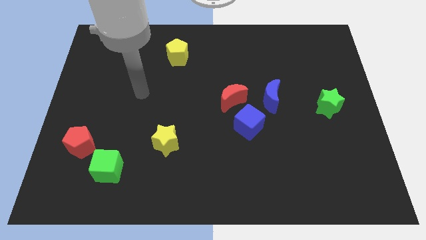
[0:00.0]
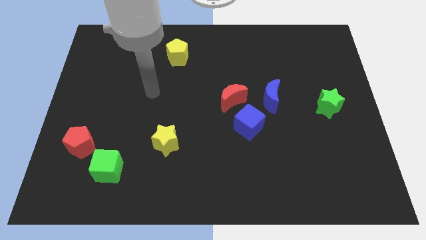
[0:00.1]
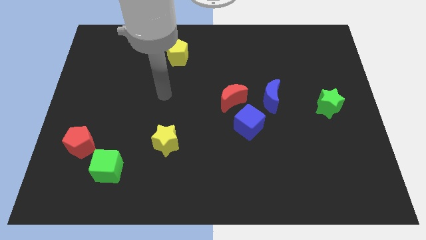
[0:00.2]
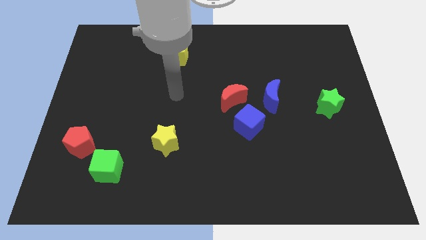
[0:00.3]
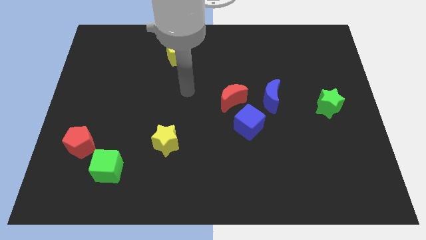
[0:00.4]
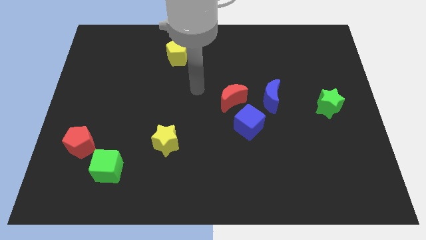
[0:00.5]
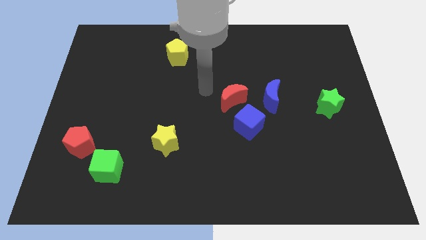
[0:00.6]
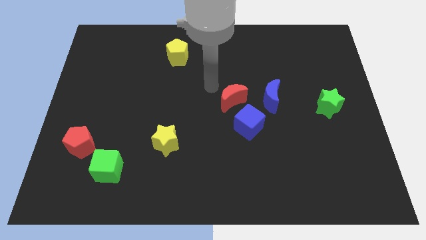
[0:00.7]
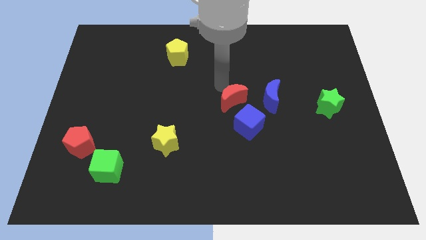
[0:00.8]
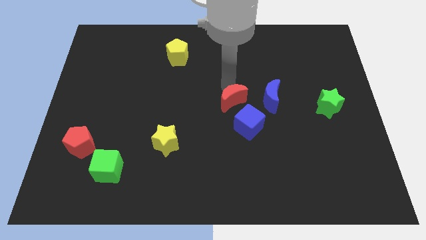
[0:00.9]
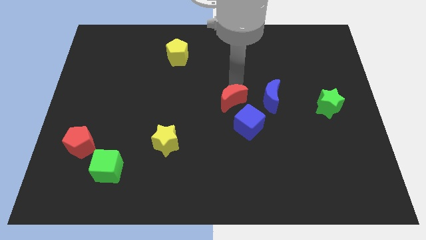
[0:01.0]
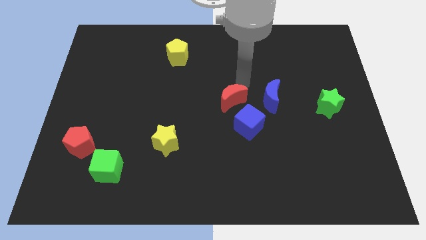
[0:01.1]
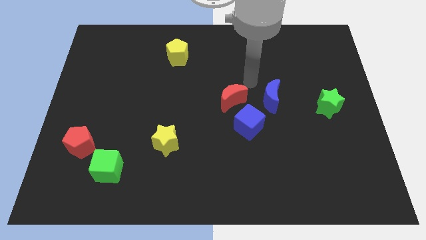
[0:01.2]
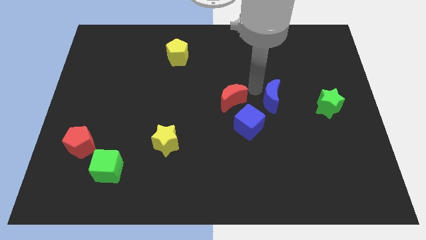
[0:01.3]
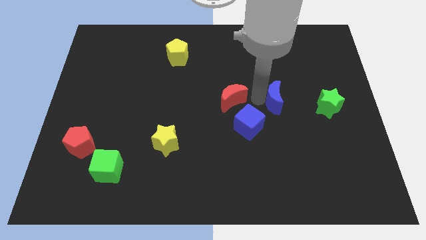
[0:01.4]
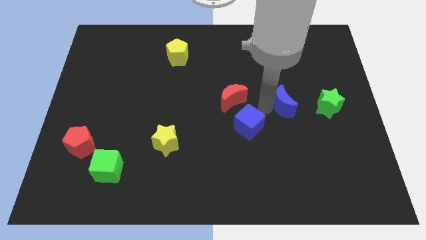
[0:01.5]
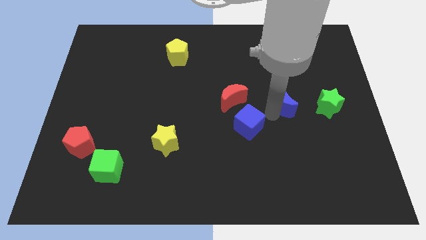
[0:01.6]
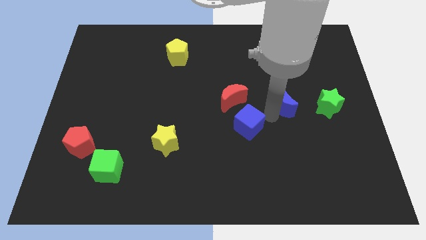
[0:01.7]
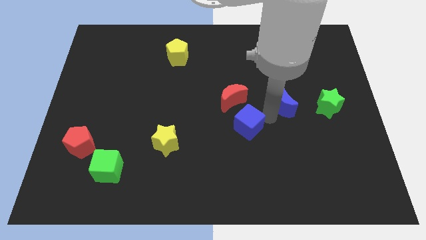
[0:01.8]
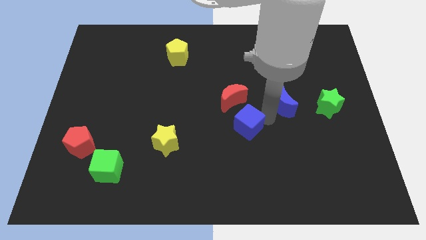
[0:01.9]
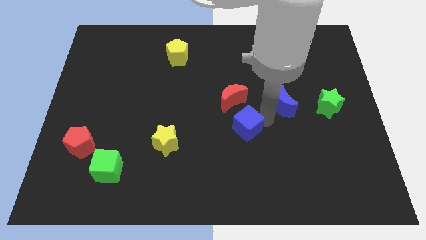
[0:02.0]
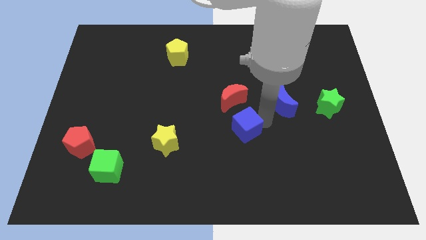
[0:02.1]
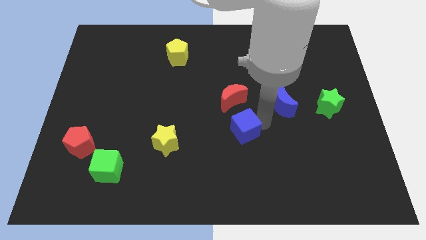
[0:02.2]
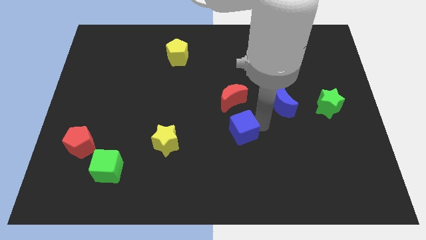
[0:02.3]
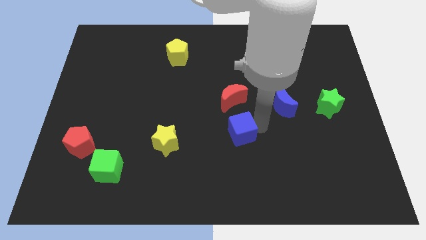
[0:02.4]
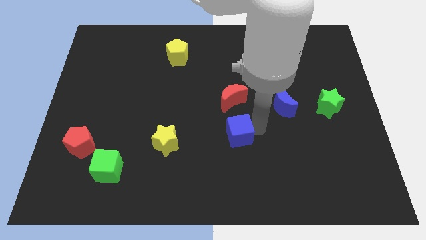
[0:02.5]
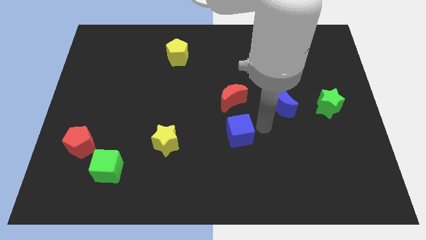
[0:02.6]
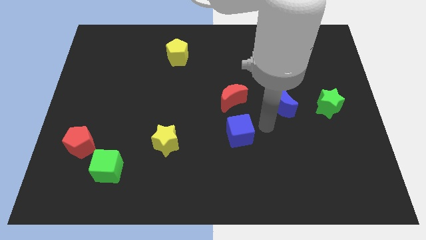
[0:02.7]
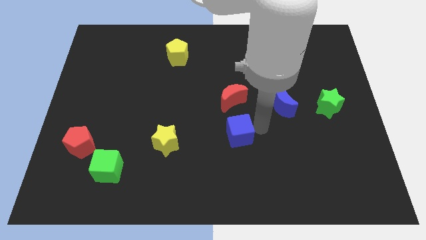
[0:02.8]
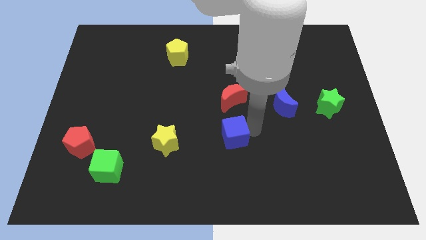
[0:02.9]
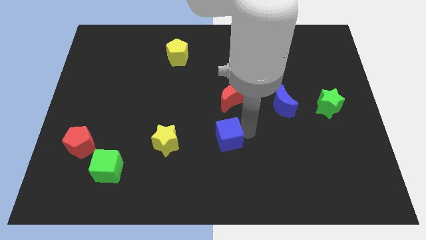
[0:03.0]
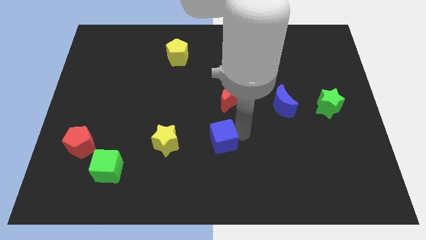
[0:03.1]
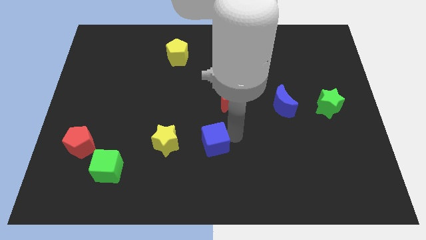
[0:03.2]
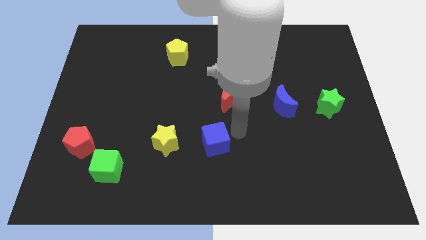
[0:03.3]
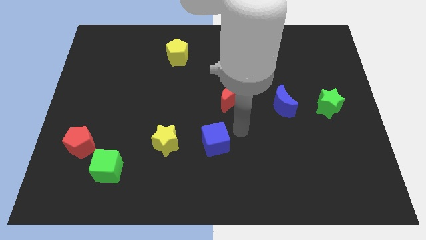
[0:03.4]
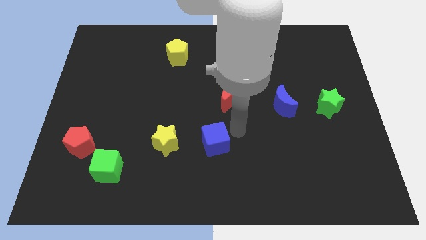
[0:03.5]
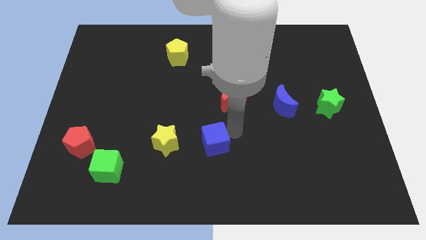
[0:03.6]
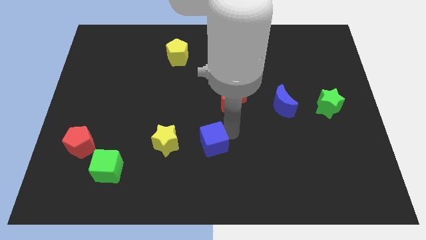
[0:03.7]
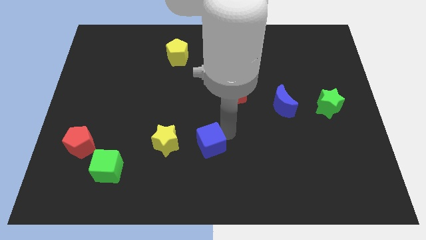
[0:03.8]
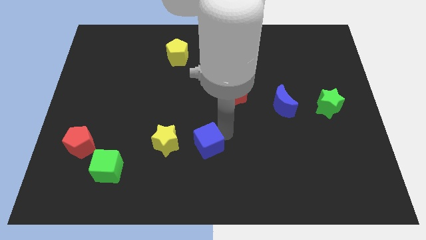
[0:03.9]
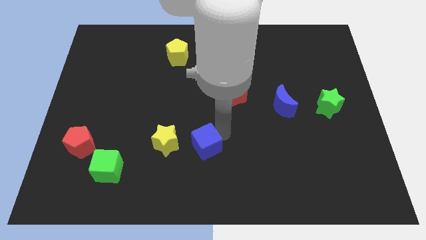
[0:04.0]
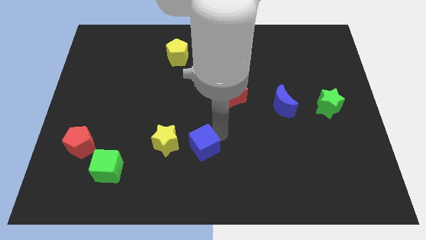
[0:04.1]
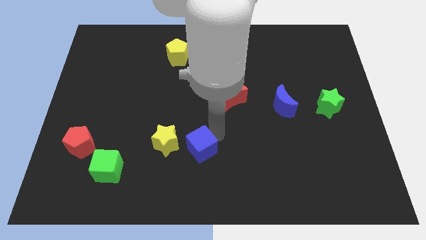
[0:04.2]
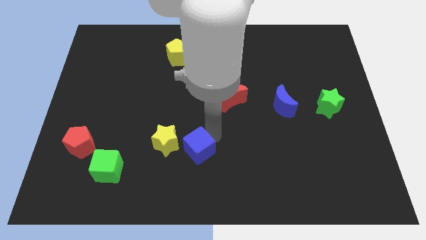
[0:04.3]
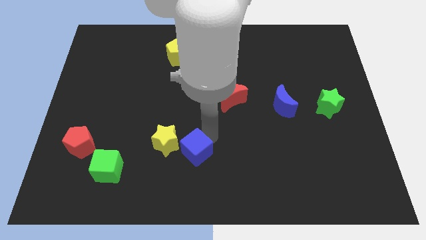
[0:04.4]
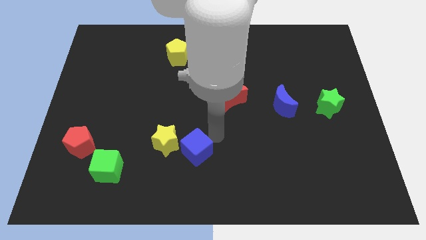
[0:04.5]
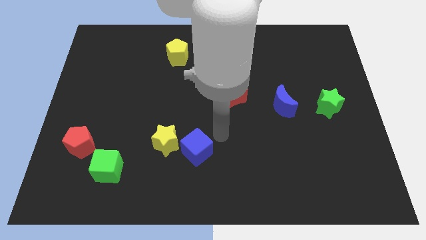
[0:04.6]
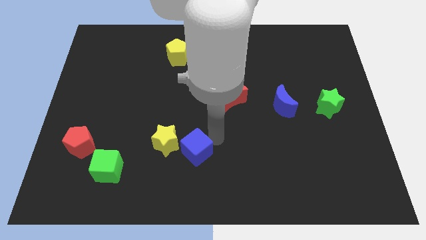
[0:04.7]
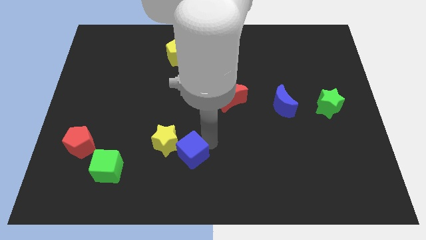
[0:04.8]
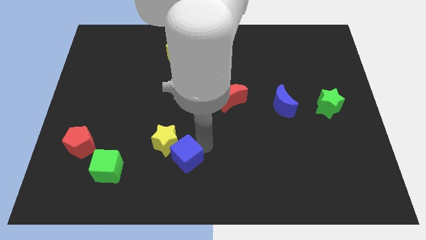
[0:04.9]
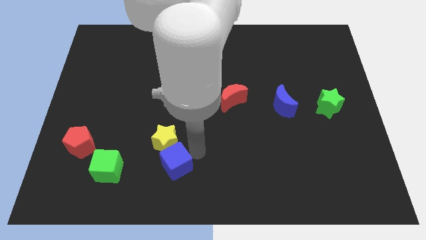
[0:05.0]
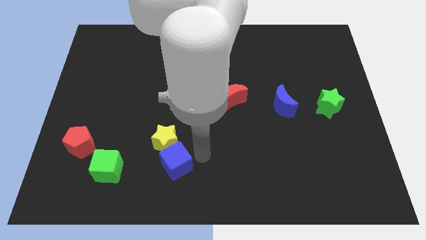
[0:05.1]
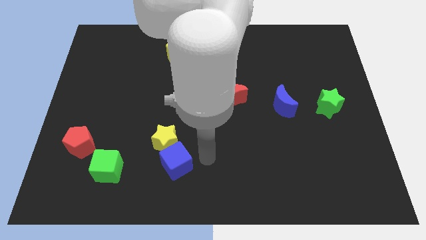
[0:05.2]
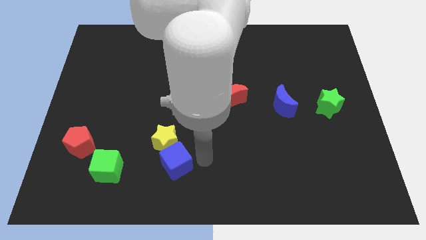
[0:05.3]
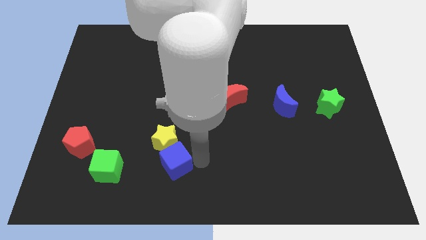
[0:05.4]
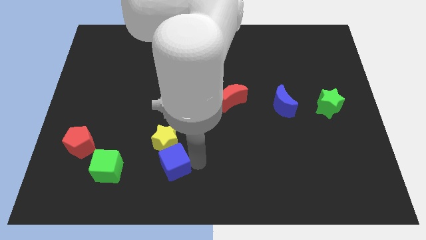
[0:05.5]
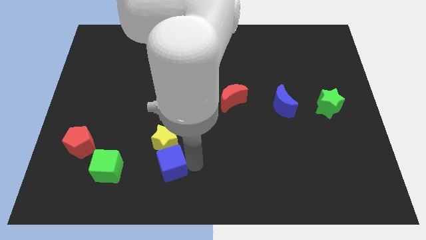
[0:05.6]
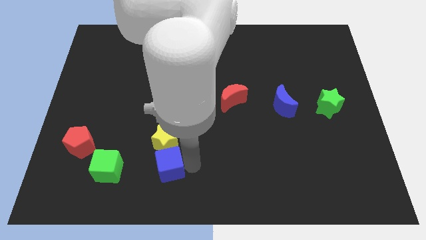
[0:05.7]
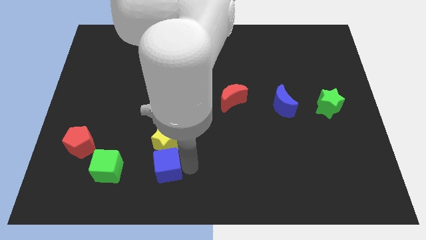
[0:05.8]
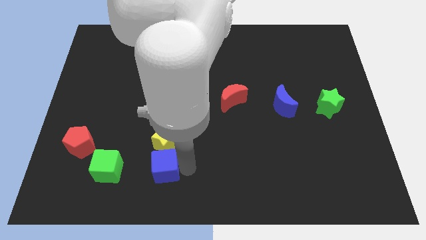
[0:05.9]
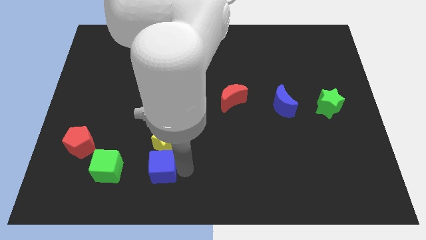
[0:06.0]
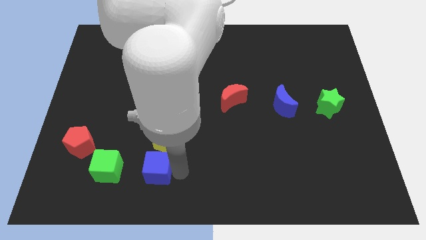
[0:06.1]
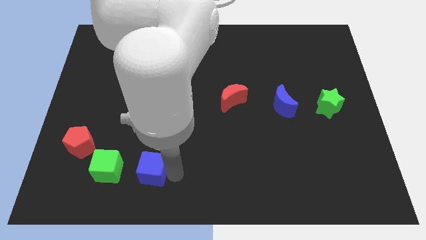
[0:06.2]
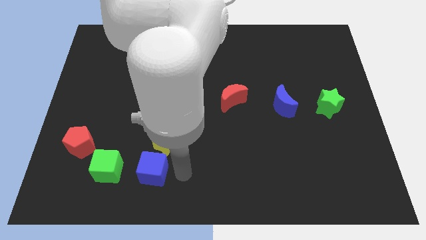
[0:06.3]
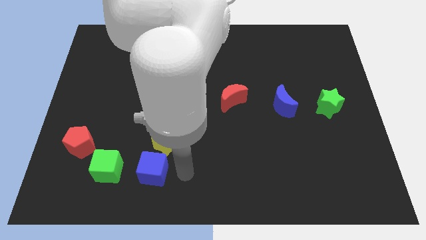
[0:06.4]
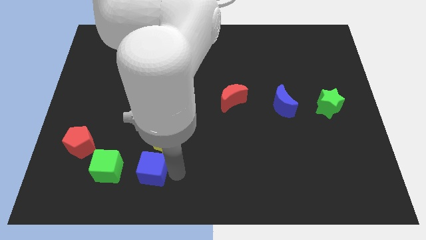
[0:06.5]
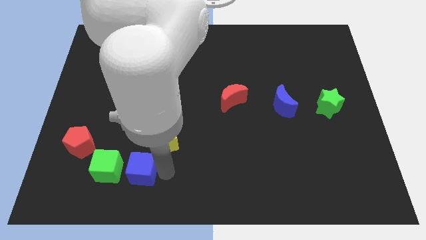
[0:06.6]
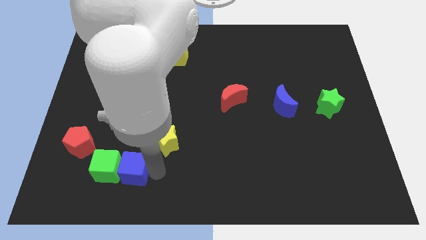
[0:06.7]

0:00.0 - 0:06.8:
put the blue cube close to the green cube

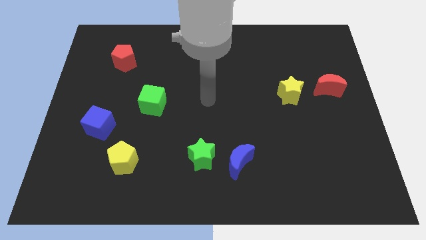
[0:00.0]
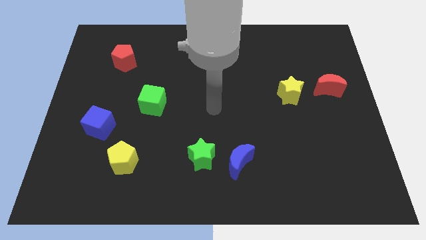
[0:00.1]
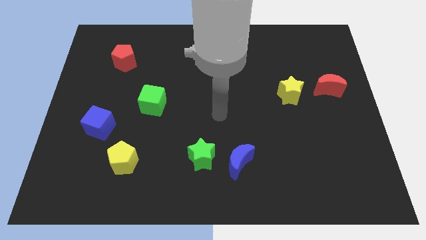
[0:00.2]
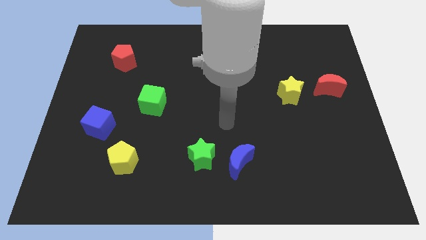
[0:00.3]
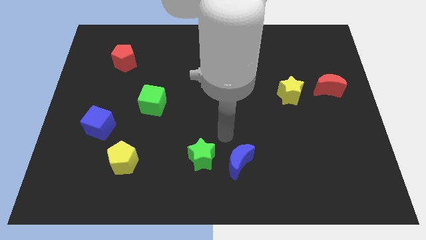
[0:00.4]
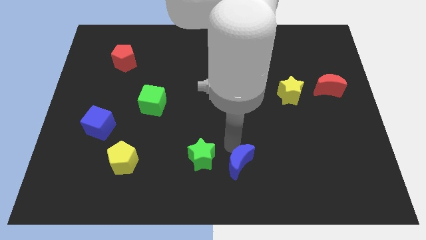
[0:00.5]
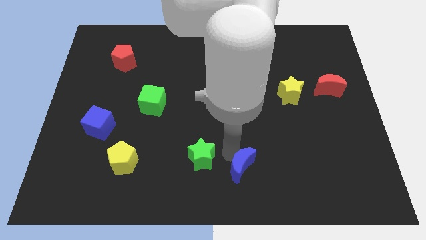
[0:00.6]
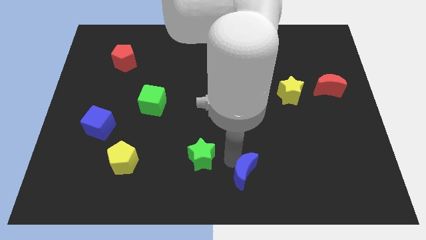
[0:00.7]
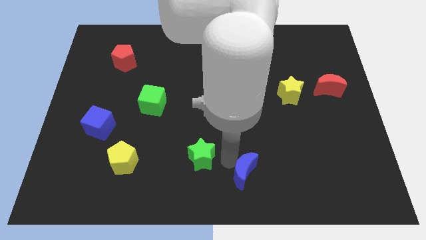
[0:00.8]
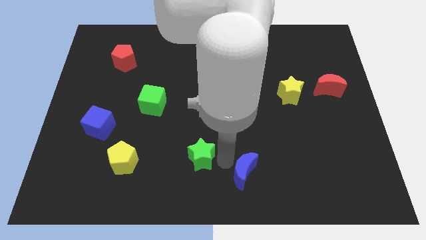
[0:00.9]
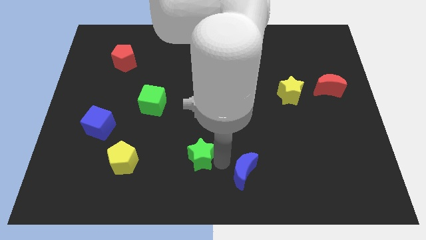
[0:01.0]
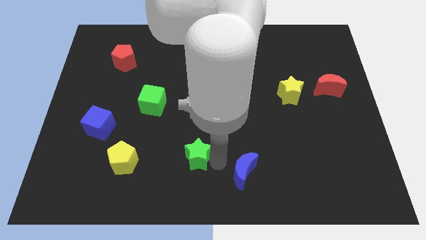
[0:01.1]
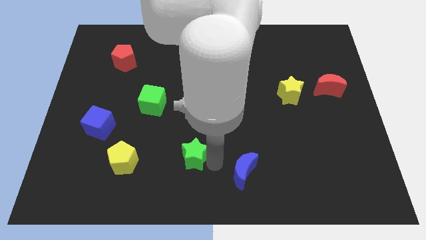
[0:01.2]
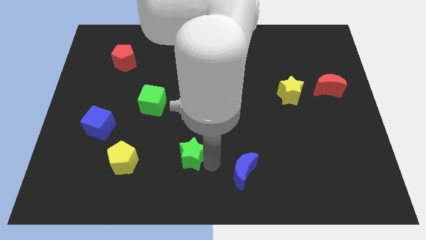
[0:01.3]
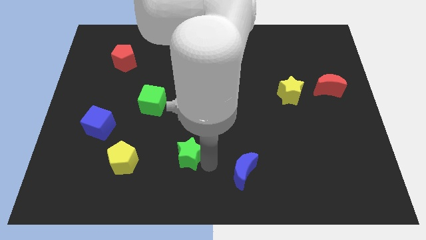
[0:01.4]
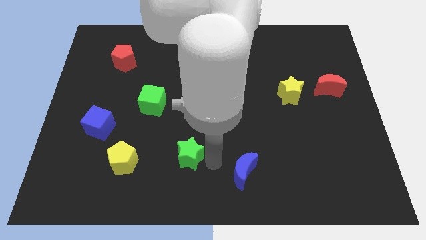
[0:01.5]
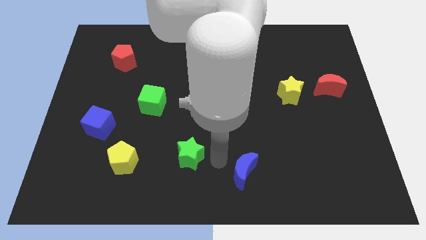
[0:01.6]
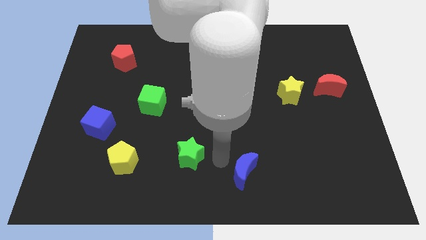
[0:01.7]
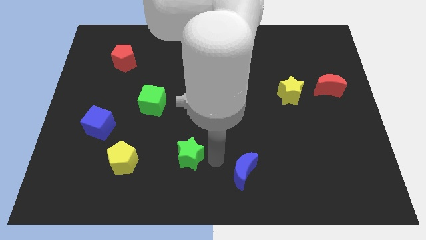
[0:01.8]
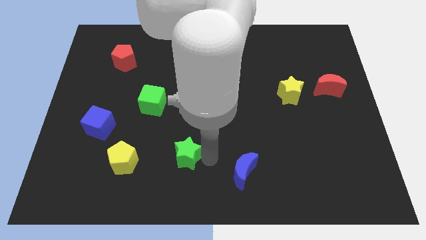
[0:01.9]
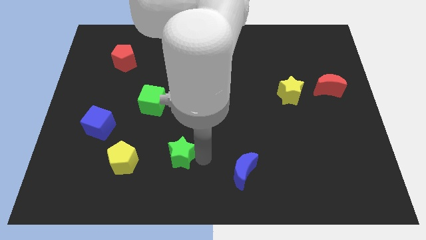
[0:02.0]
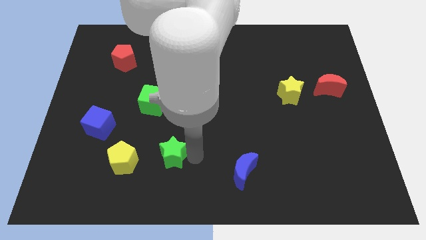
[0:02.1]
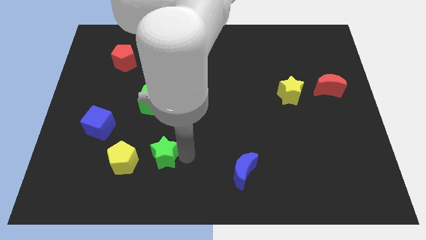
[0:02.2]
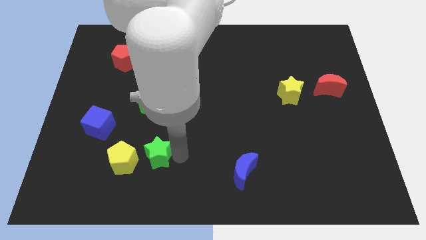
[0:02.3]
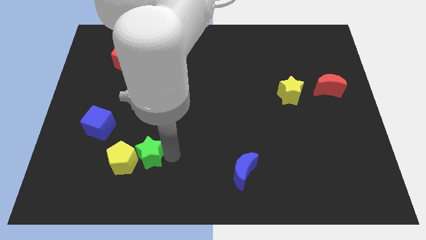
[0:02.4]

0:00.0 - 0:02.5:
move the green star next to the yellow pentagon
